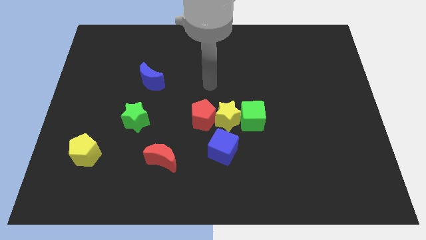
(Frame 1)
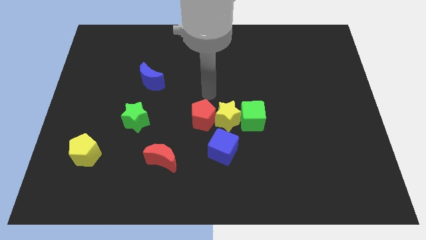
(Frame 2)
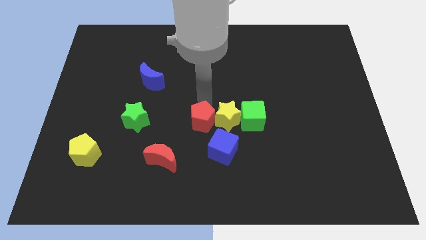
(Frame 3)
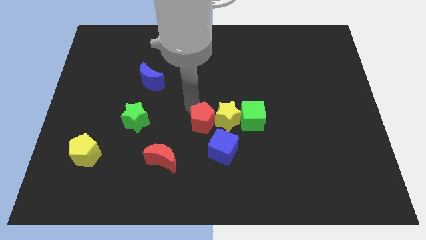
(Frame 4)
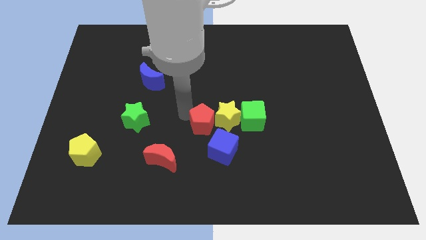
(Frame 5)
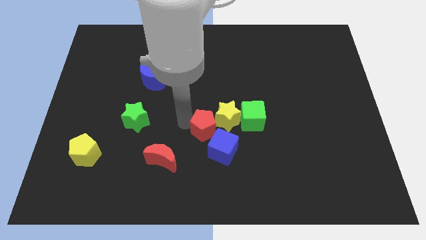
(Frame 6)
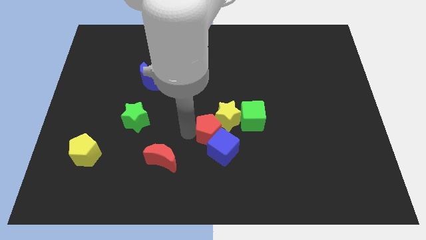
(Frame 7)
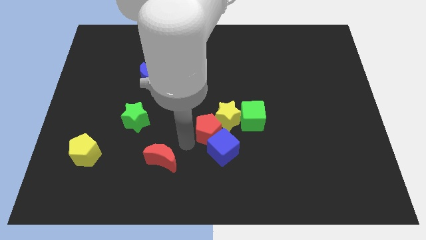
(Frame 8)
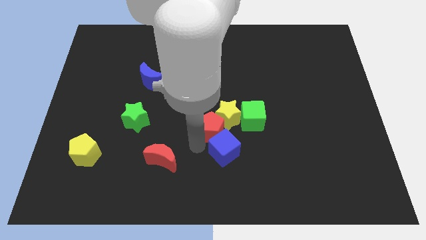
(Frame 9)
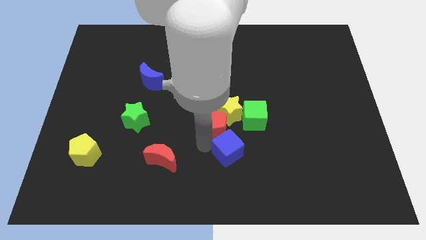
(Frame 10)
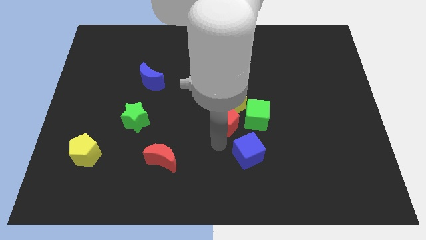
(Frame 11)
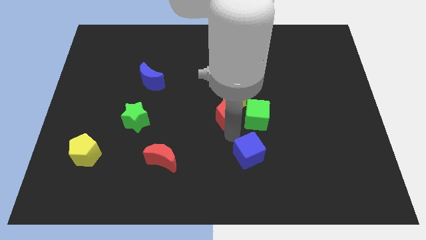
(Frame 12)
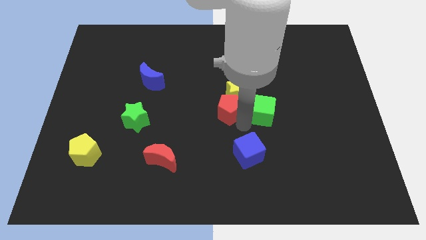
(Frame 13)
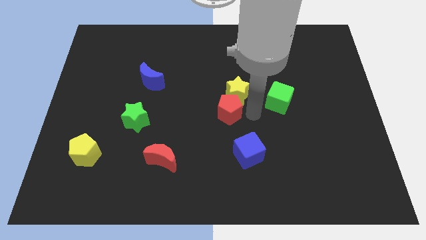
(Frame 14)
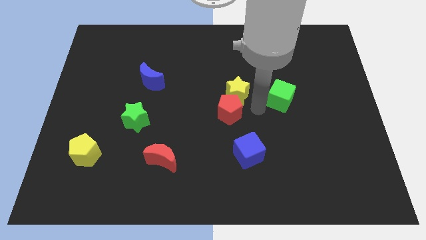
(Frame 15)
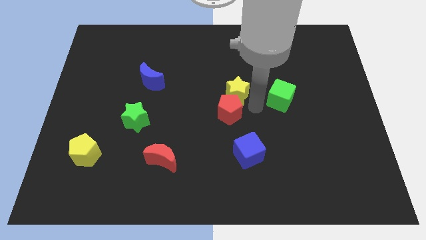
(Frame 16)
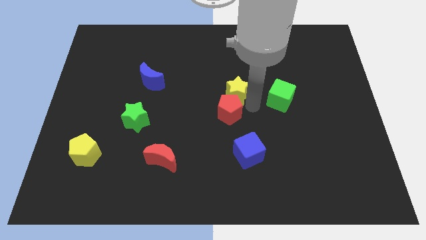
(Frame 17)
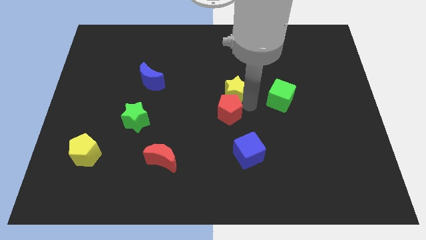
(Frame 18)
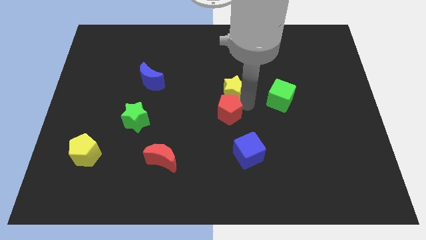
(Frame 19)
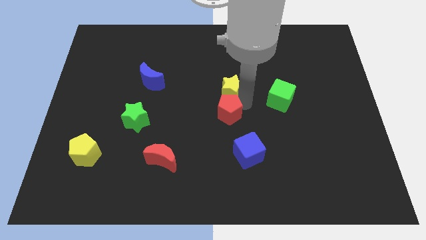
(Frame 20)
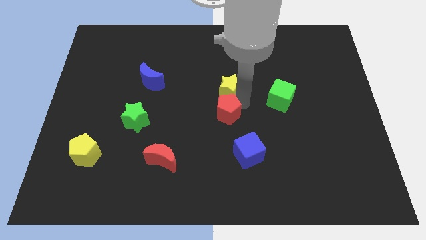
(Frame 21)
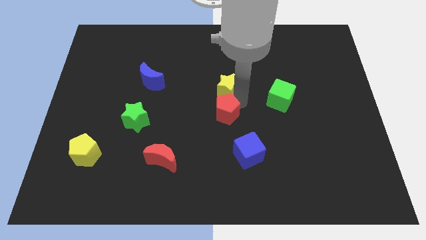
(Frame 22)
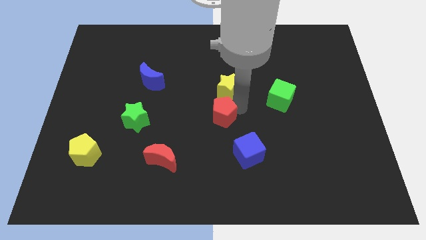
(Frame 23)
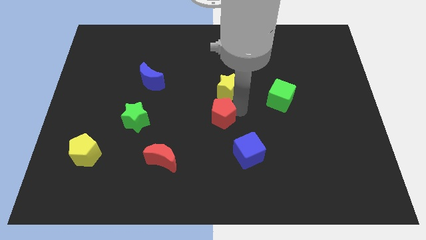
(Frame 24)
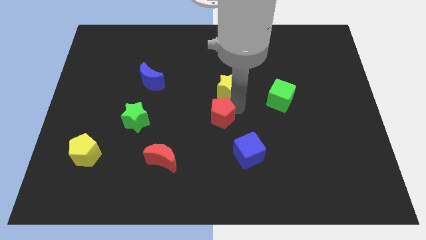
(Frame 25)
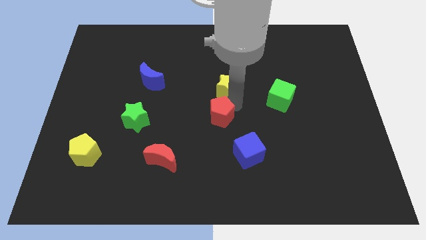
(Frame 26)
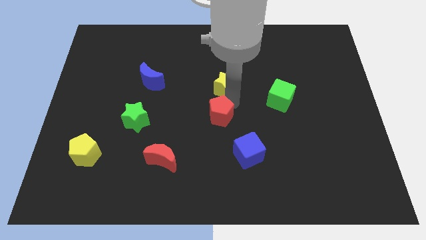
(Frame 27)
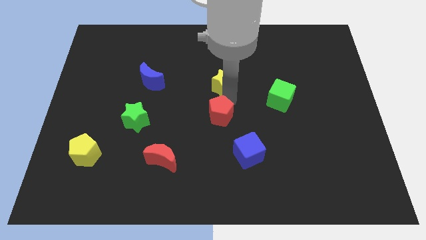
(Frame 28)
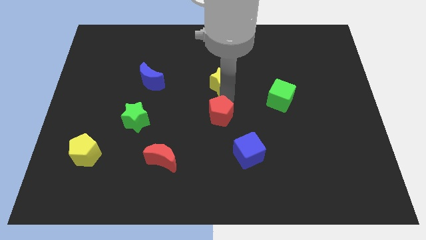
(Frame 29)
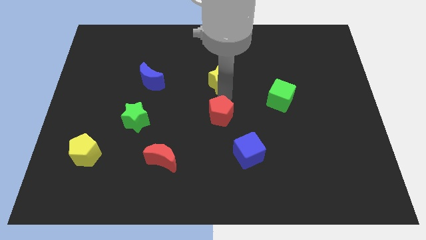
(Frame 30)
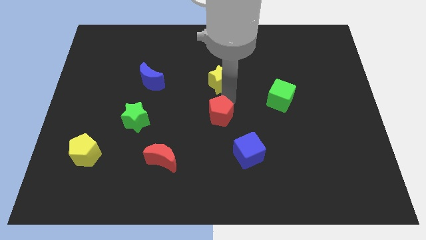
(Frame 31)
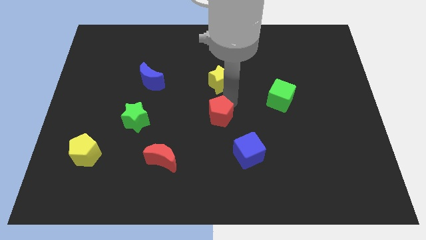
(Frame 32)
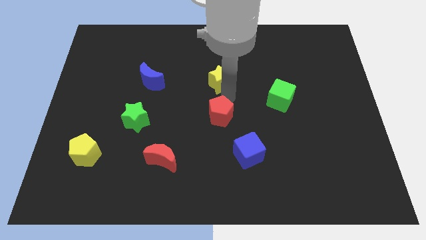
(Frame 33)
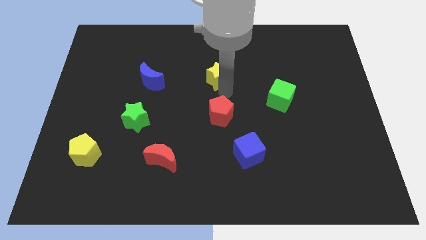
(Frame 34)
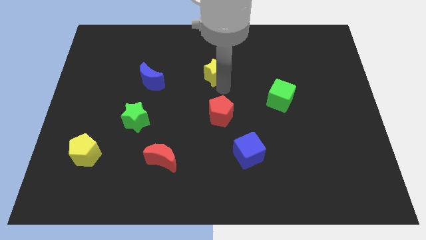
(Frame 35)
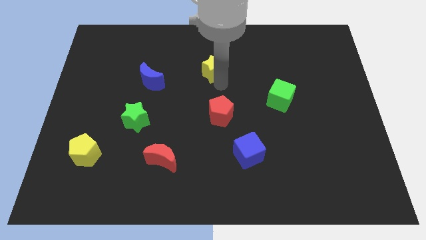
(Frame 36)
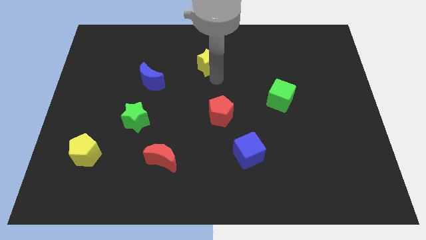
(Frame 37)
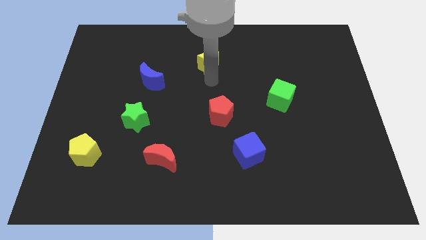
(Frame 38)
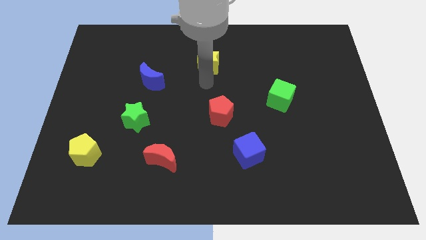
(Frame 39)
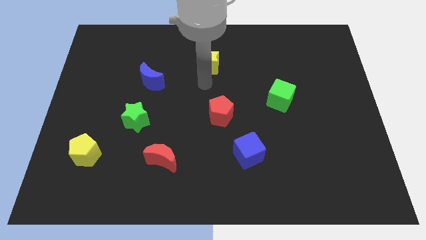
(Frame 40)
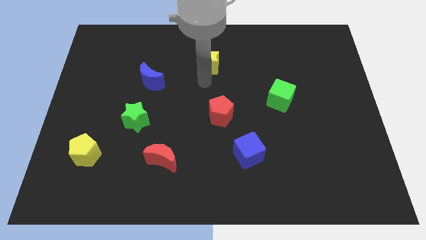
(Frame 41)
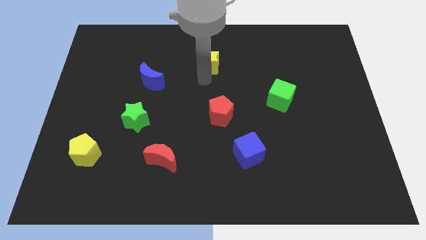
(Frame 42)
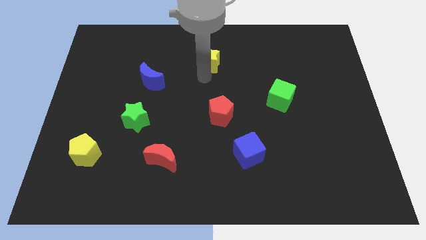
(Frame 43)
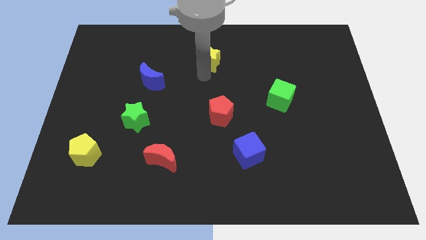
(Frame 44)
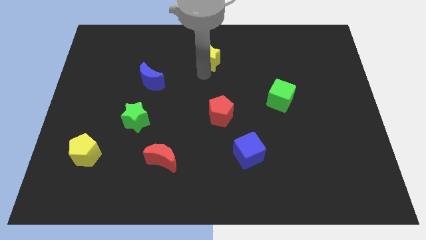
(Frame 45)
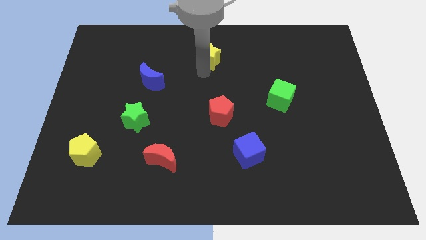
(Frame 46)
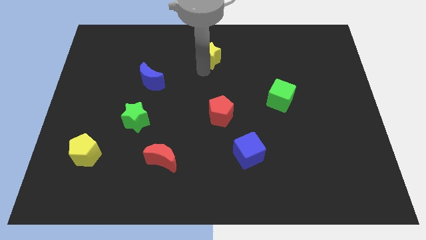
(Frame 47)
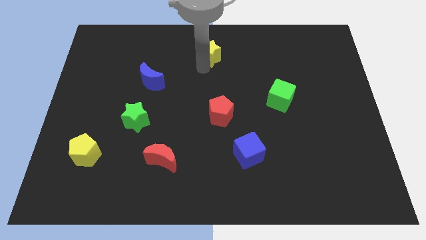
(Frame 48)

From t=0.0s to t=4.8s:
push the yellow star to the towards your base

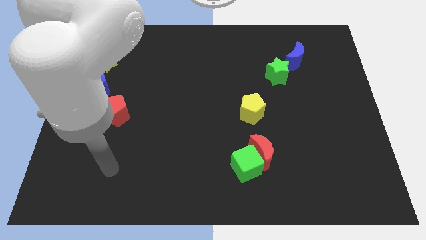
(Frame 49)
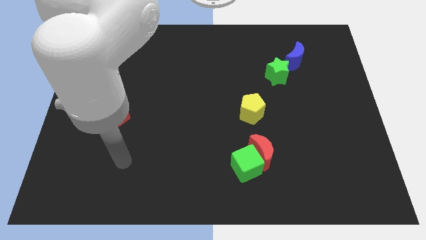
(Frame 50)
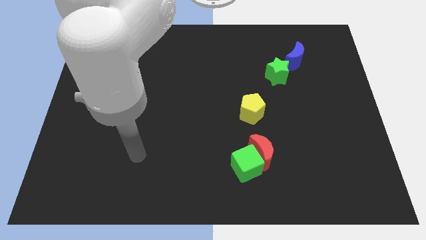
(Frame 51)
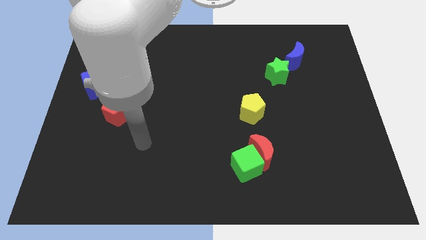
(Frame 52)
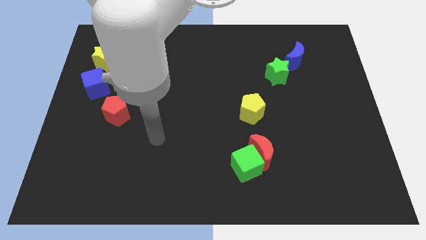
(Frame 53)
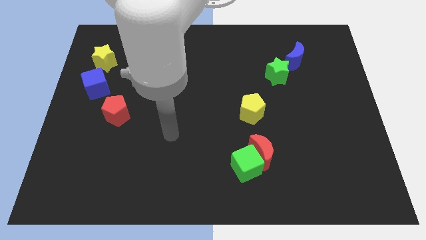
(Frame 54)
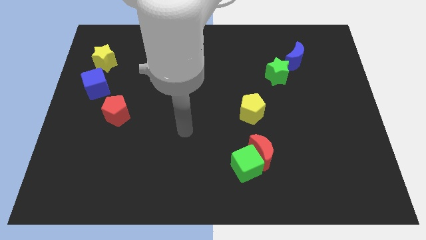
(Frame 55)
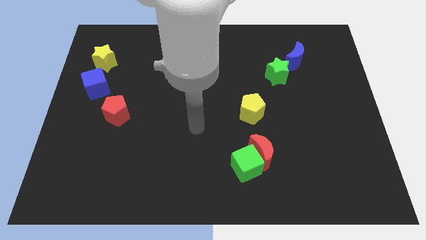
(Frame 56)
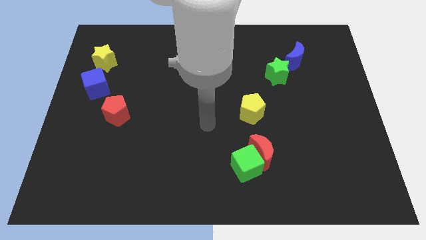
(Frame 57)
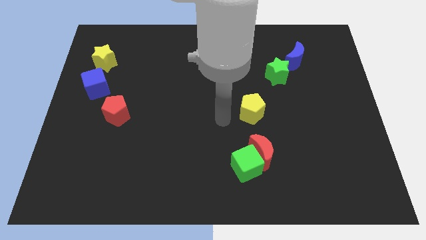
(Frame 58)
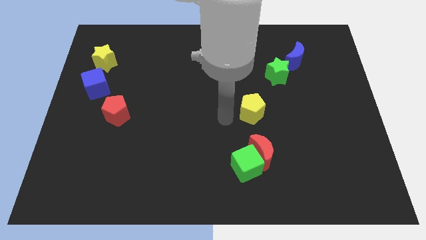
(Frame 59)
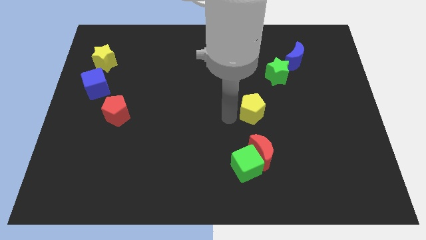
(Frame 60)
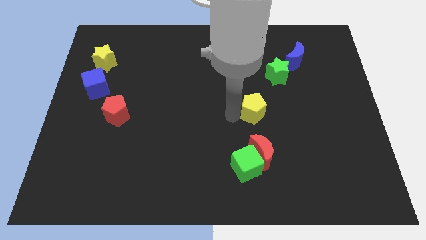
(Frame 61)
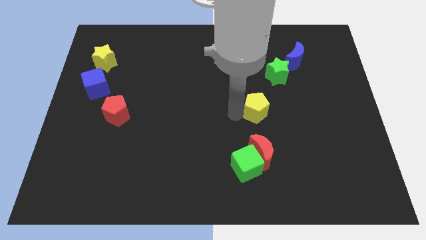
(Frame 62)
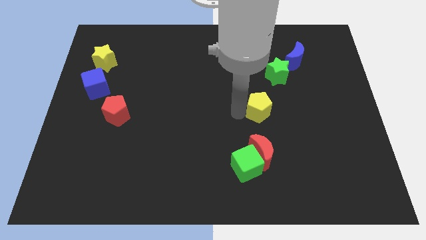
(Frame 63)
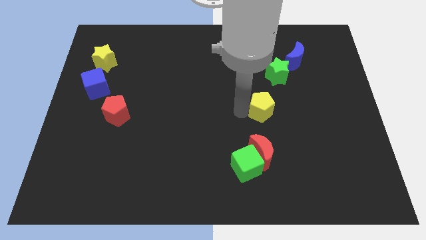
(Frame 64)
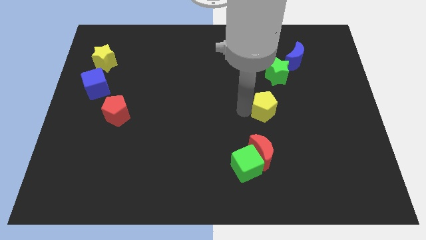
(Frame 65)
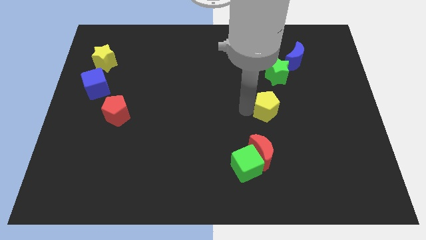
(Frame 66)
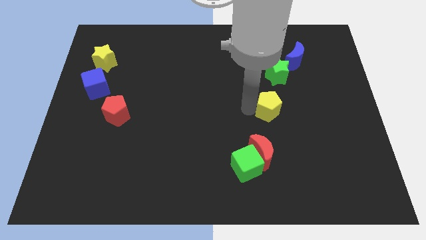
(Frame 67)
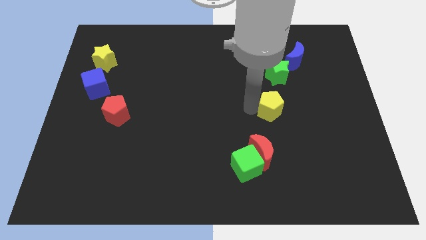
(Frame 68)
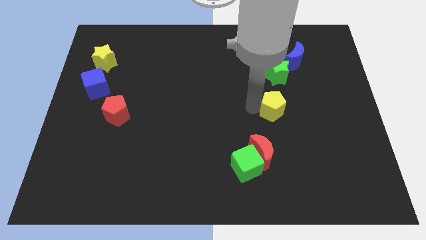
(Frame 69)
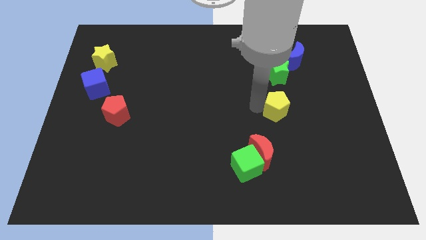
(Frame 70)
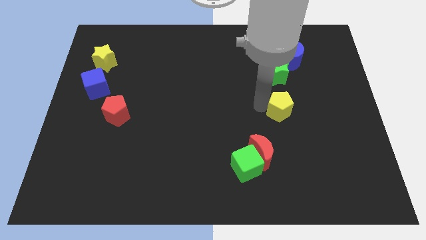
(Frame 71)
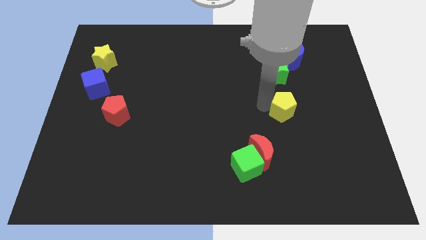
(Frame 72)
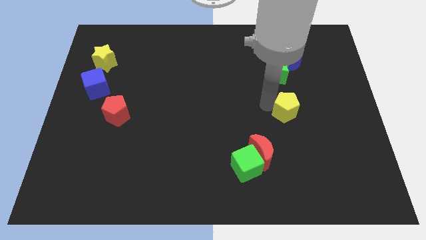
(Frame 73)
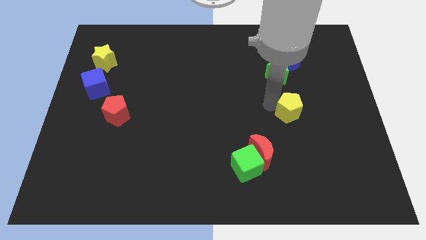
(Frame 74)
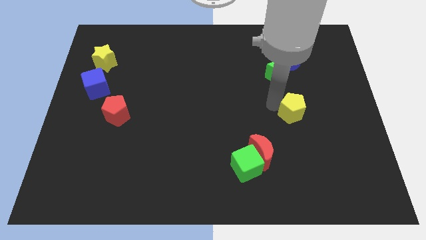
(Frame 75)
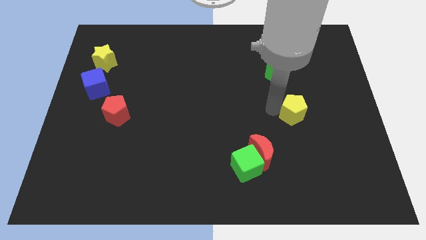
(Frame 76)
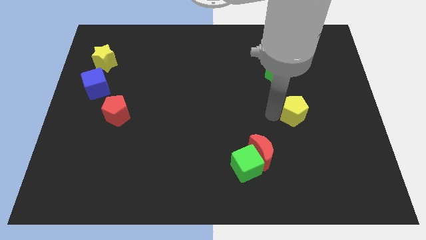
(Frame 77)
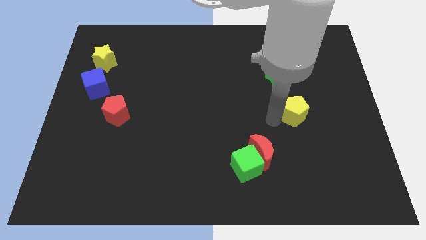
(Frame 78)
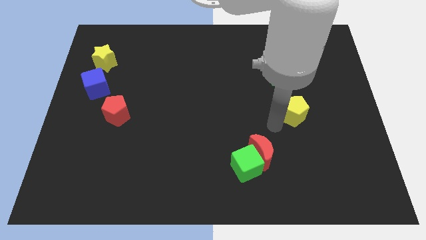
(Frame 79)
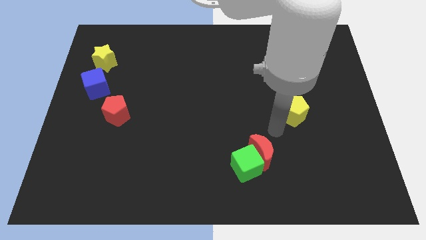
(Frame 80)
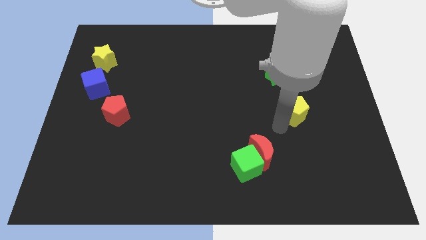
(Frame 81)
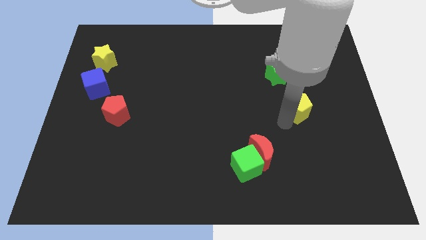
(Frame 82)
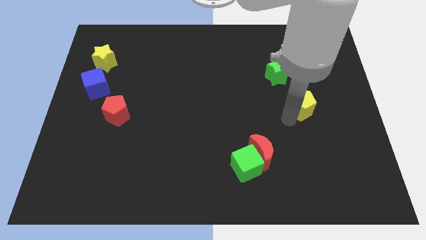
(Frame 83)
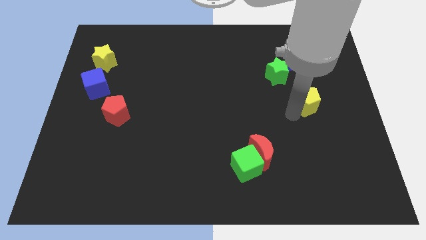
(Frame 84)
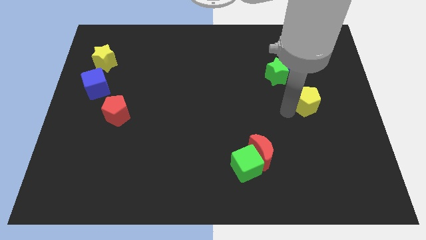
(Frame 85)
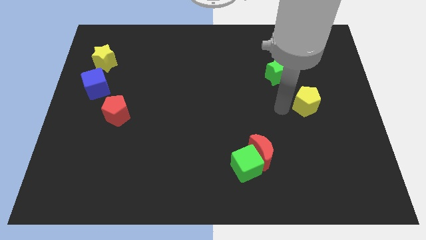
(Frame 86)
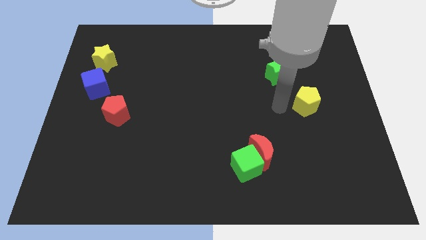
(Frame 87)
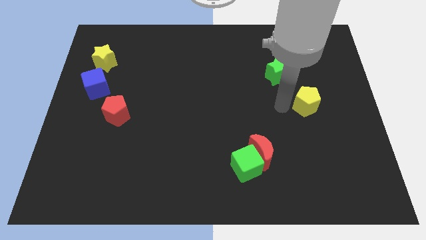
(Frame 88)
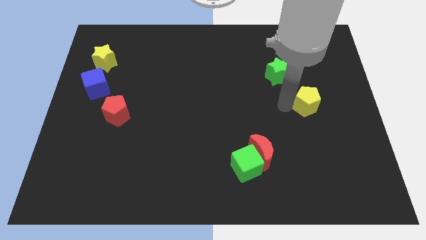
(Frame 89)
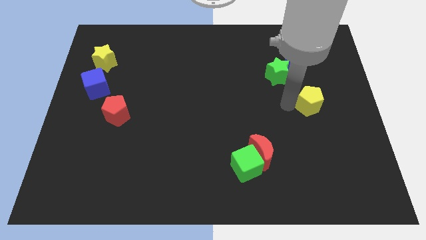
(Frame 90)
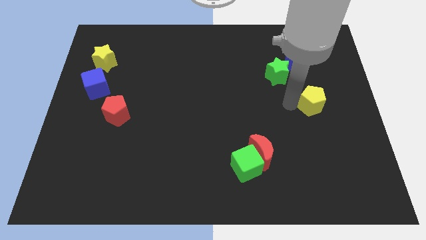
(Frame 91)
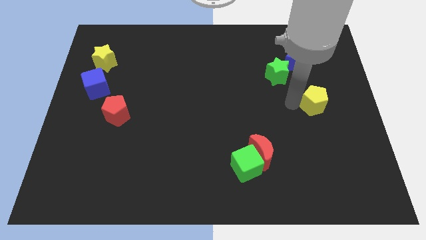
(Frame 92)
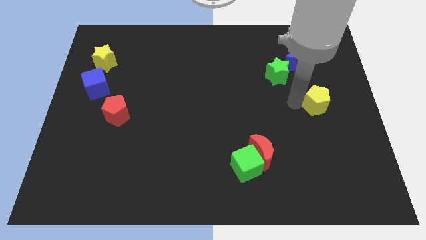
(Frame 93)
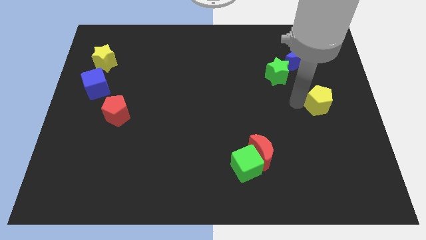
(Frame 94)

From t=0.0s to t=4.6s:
move the yellow pentagon to the center right
